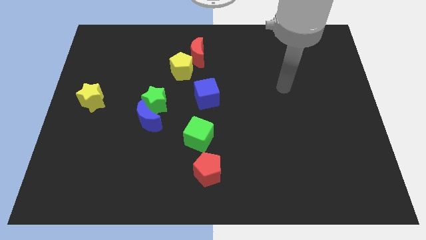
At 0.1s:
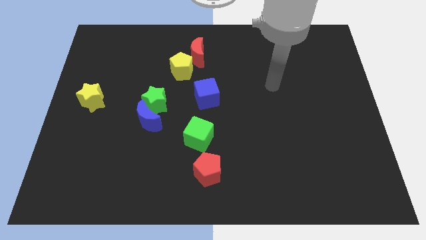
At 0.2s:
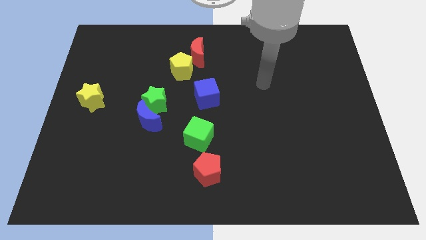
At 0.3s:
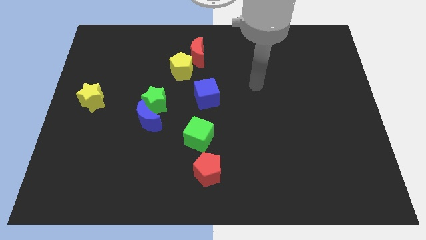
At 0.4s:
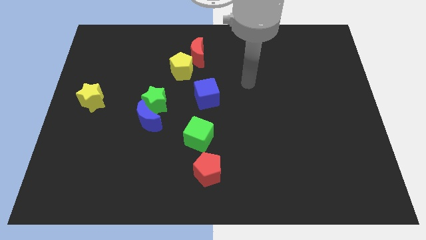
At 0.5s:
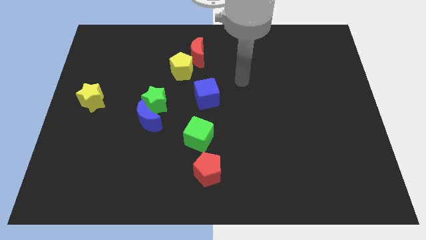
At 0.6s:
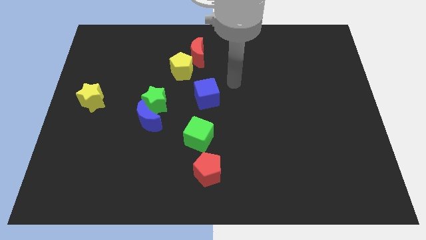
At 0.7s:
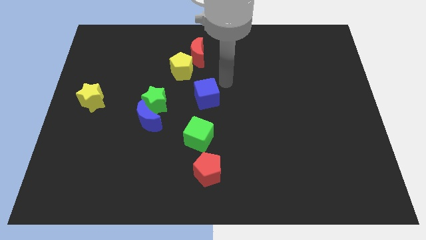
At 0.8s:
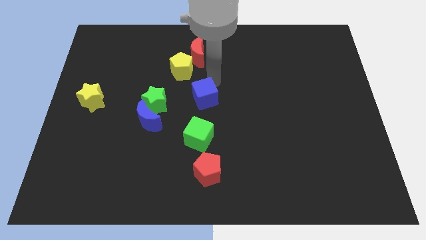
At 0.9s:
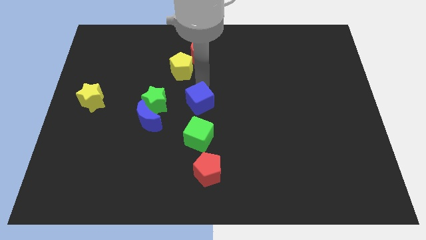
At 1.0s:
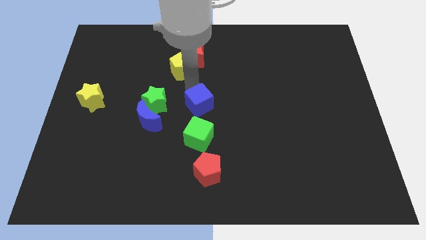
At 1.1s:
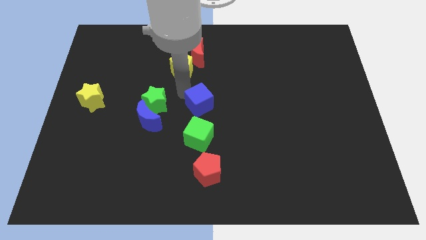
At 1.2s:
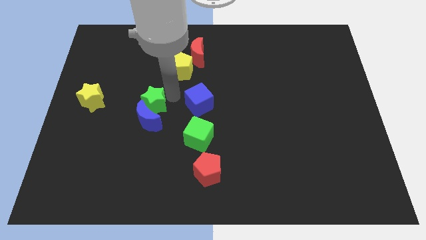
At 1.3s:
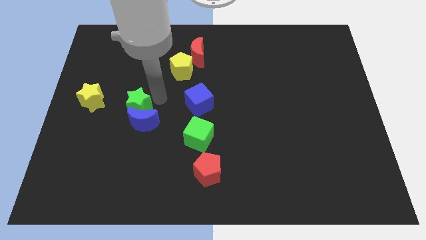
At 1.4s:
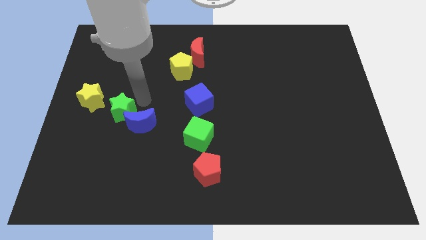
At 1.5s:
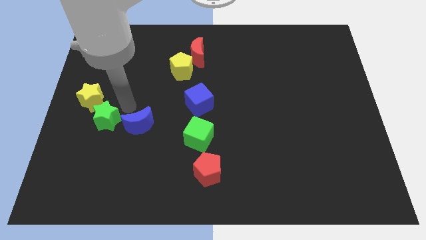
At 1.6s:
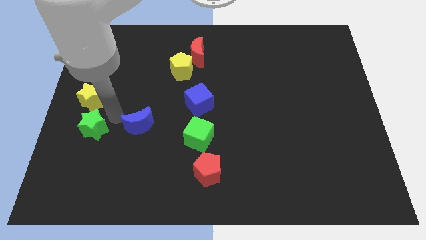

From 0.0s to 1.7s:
separate the blue moon from the green star

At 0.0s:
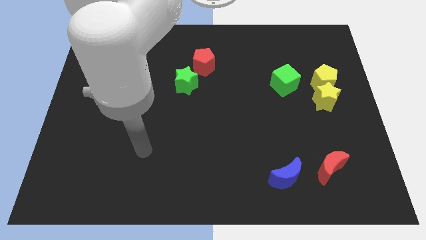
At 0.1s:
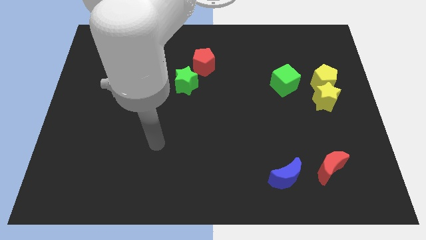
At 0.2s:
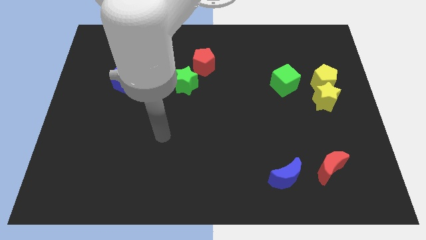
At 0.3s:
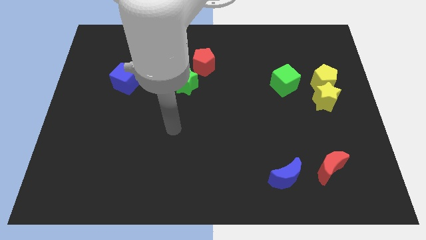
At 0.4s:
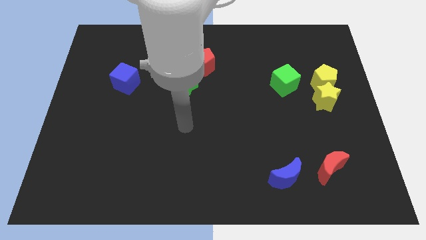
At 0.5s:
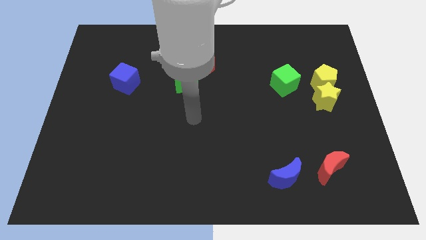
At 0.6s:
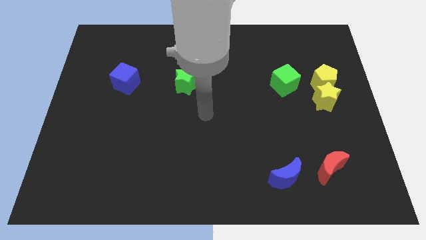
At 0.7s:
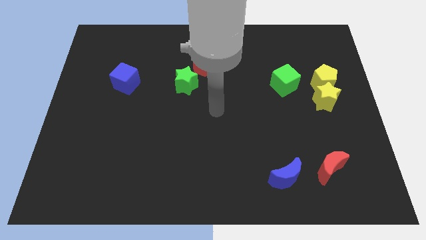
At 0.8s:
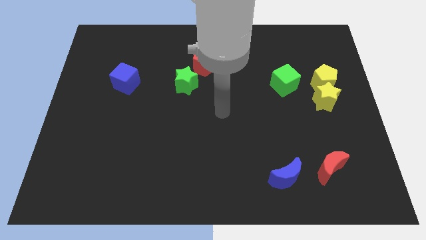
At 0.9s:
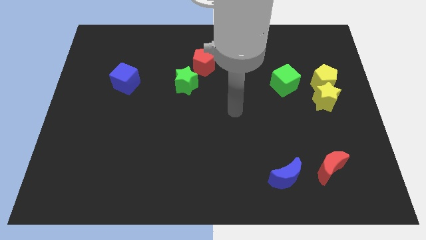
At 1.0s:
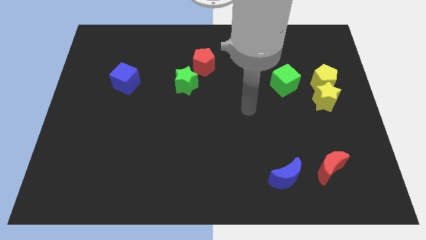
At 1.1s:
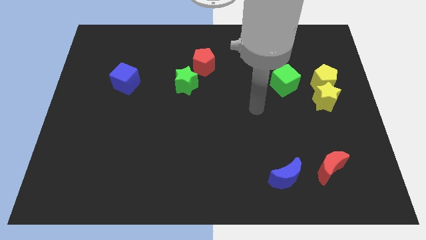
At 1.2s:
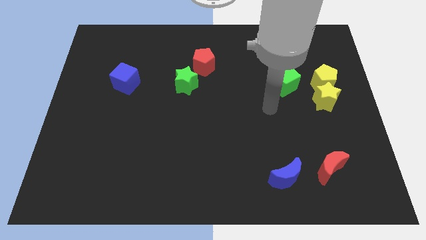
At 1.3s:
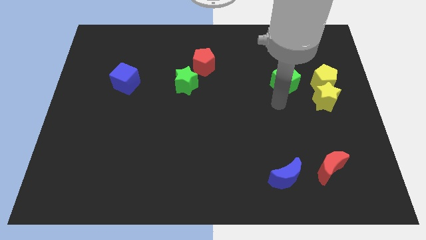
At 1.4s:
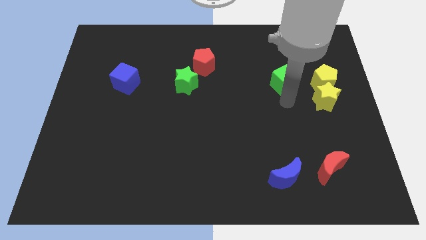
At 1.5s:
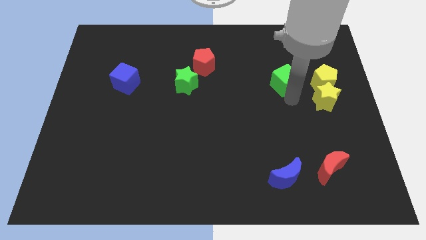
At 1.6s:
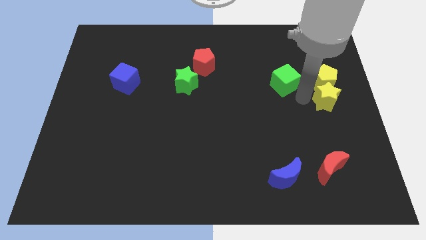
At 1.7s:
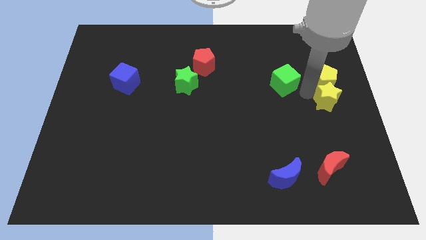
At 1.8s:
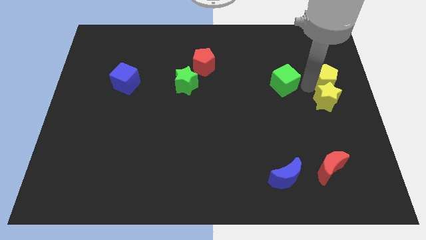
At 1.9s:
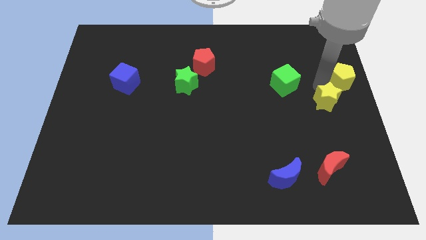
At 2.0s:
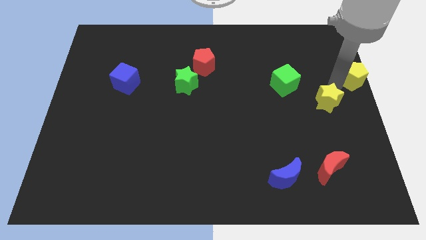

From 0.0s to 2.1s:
separate the yellow star from the yellow pentagon

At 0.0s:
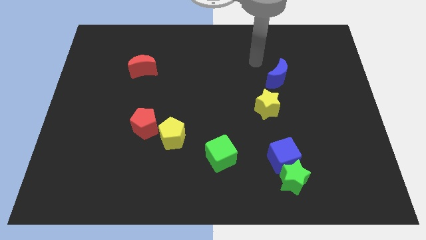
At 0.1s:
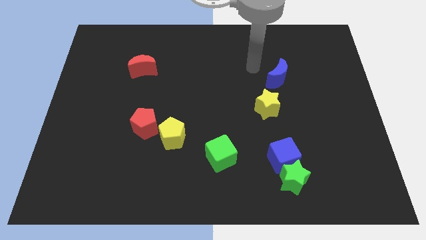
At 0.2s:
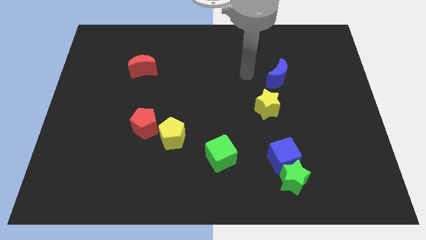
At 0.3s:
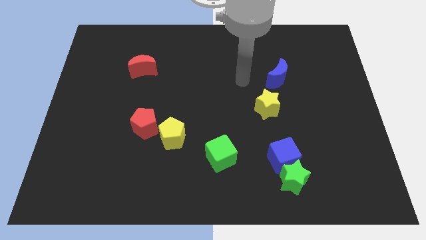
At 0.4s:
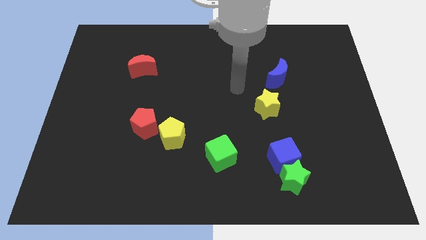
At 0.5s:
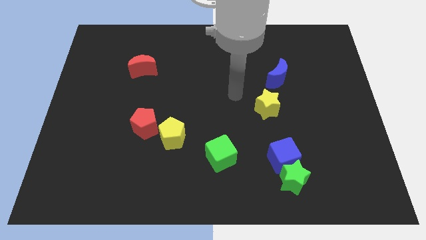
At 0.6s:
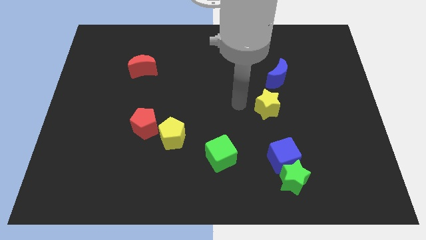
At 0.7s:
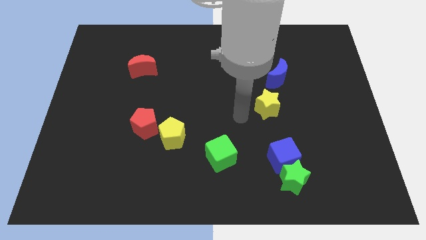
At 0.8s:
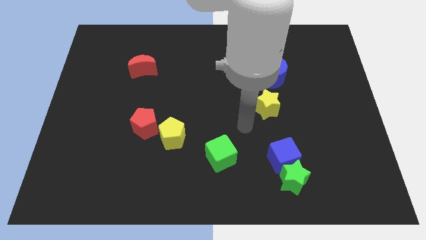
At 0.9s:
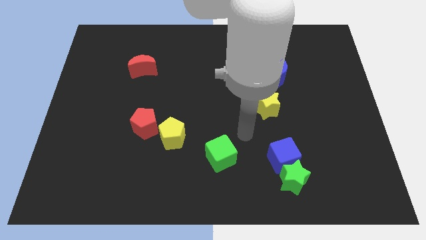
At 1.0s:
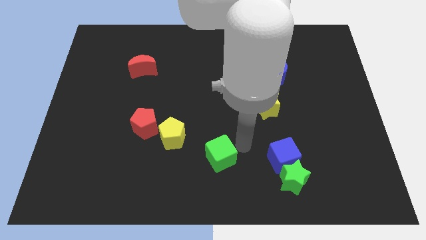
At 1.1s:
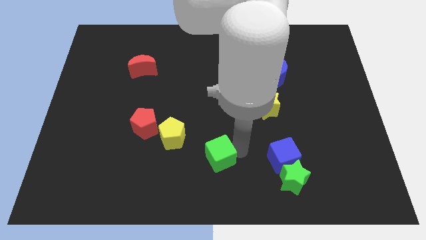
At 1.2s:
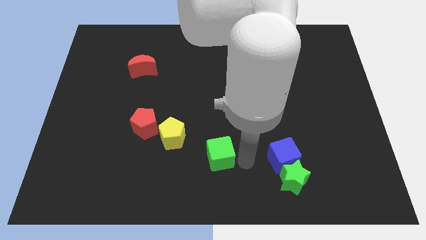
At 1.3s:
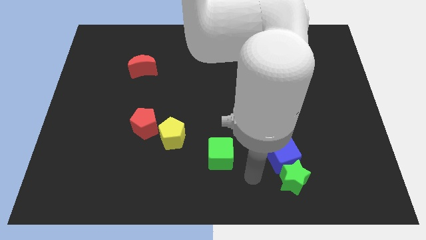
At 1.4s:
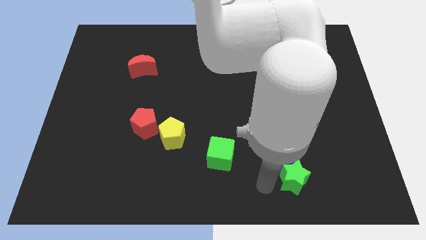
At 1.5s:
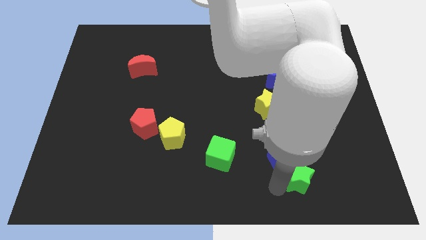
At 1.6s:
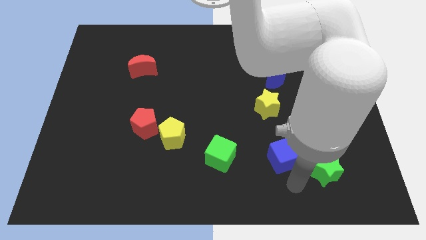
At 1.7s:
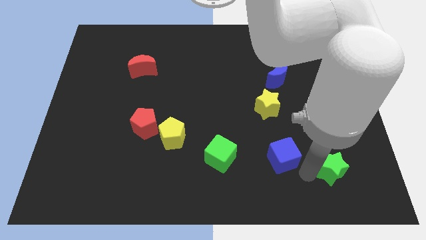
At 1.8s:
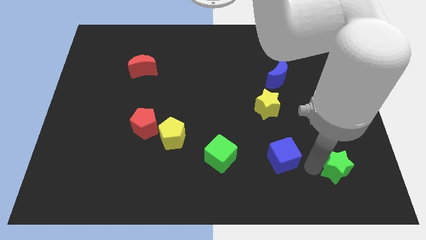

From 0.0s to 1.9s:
separate the blue cube from the green star

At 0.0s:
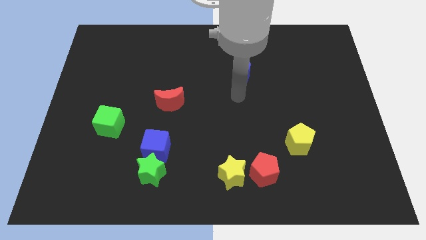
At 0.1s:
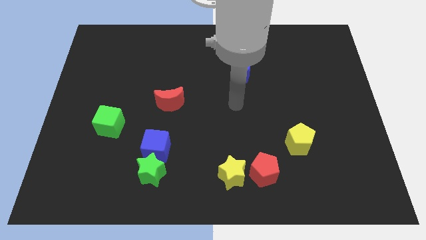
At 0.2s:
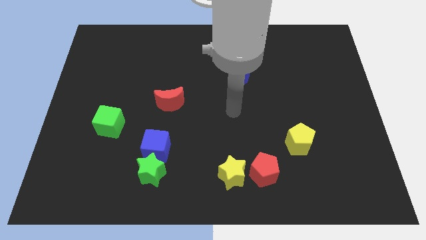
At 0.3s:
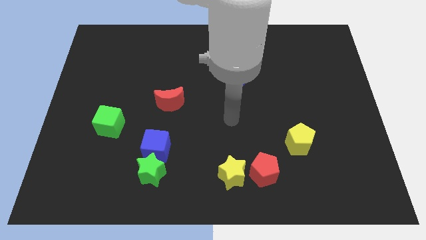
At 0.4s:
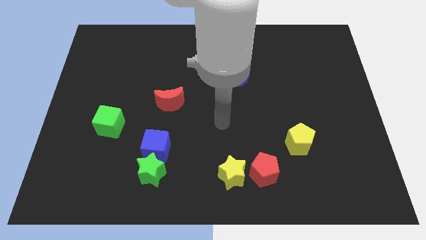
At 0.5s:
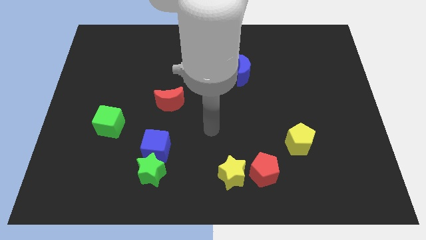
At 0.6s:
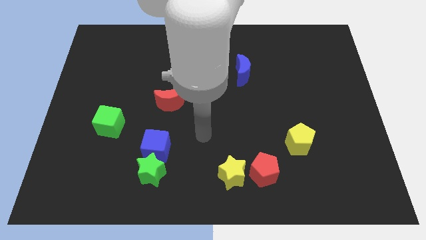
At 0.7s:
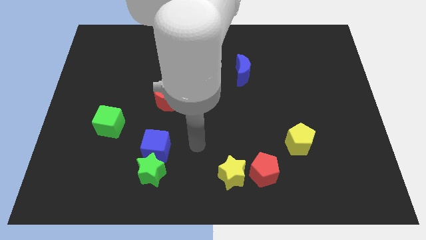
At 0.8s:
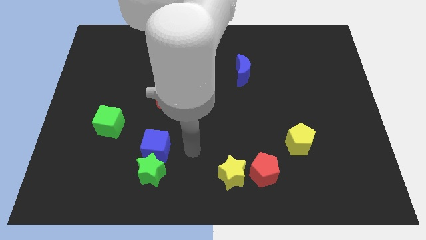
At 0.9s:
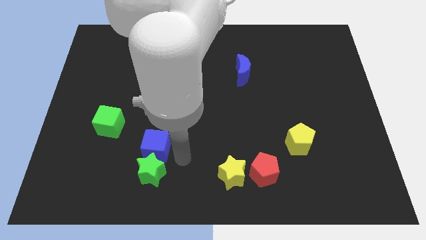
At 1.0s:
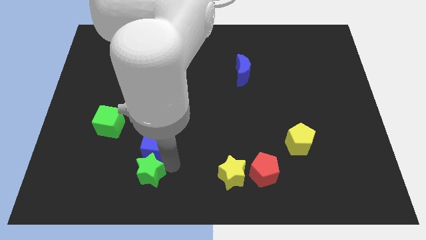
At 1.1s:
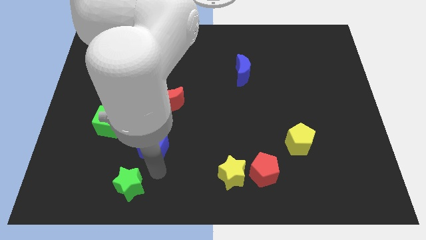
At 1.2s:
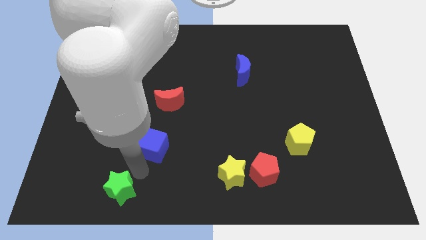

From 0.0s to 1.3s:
pull the blue cube apart from the green star

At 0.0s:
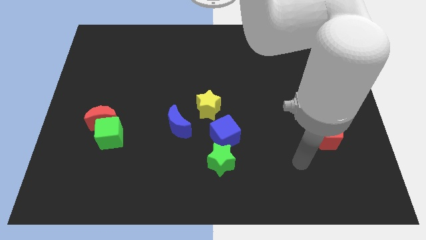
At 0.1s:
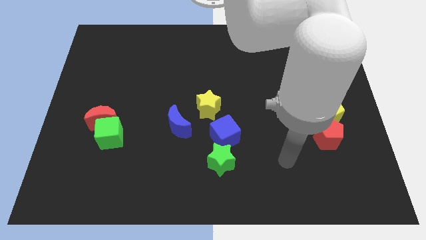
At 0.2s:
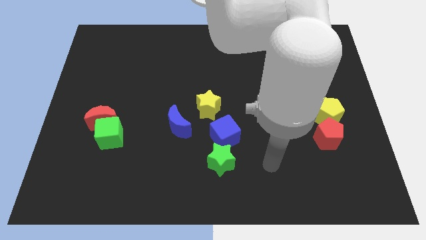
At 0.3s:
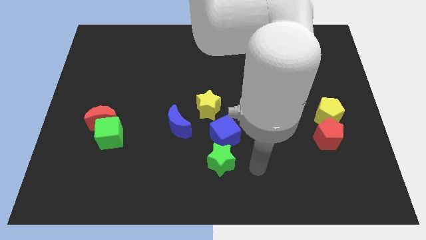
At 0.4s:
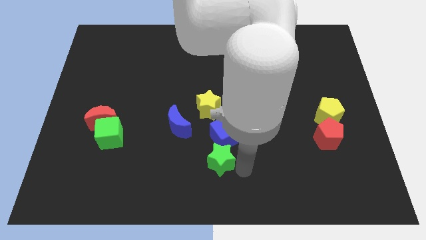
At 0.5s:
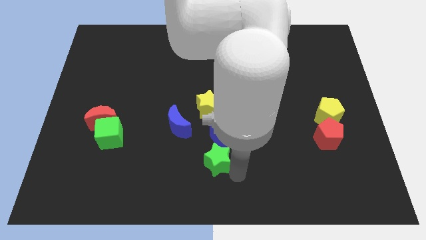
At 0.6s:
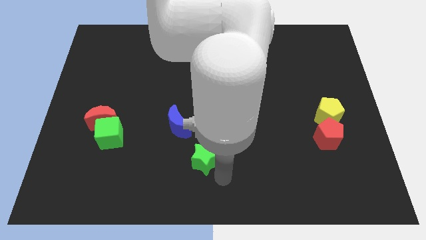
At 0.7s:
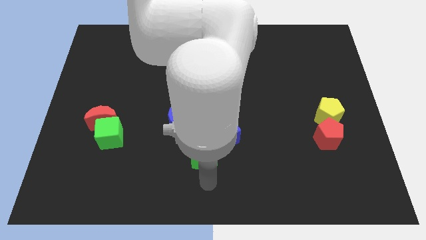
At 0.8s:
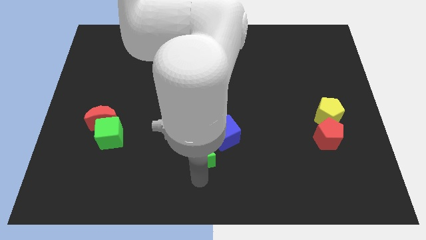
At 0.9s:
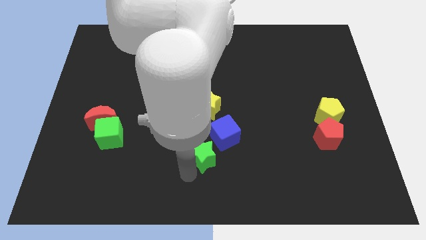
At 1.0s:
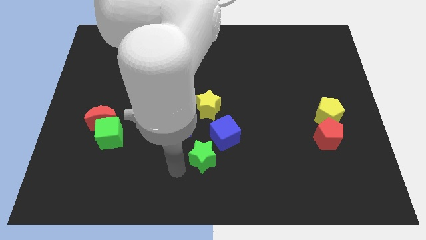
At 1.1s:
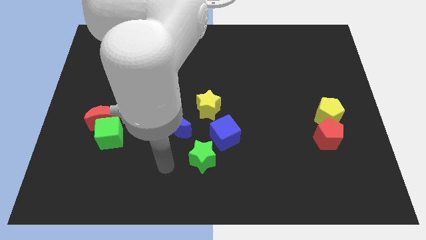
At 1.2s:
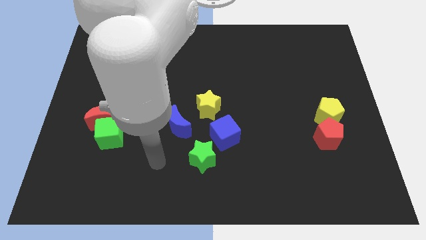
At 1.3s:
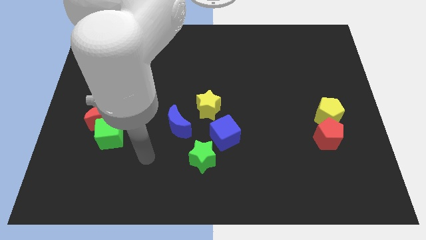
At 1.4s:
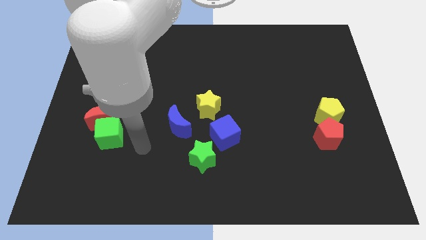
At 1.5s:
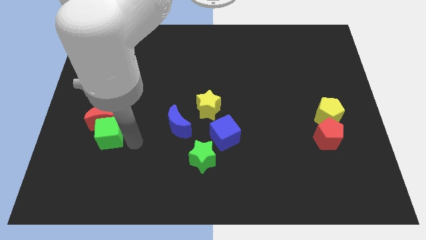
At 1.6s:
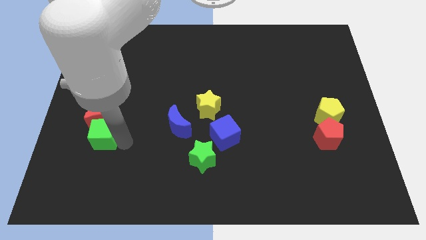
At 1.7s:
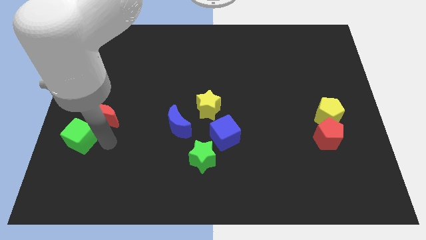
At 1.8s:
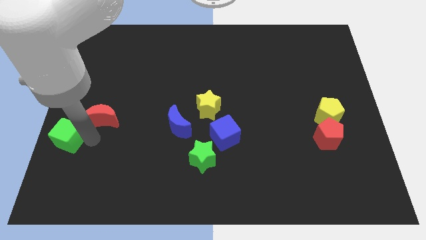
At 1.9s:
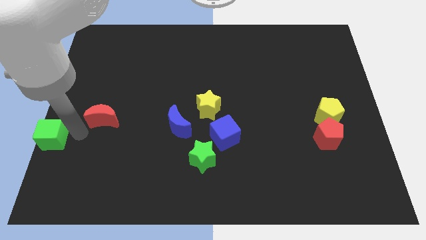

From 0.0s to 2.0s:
separate the red moon from the green cube

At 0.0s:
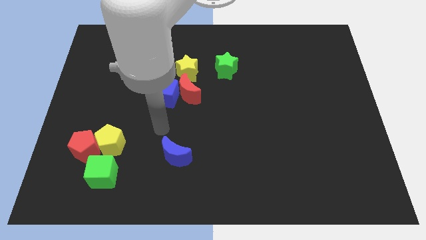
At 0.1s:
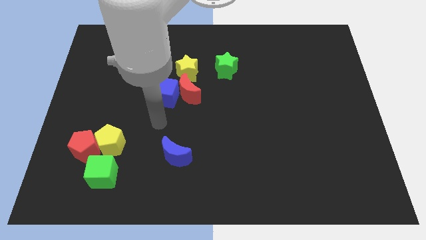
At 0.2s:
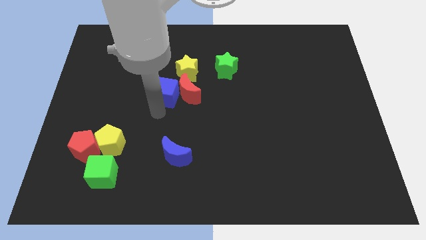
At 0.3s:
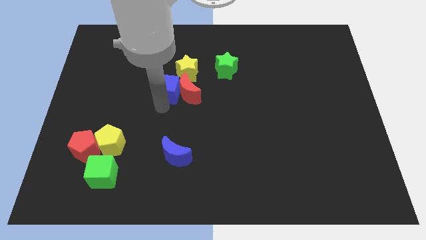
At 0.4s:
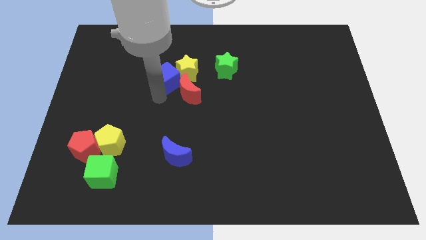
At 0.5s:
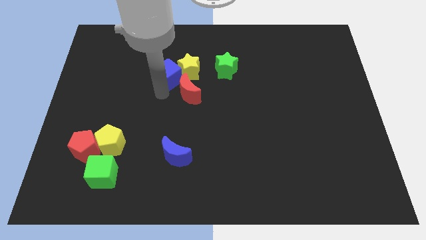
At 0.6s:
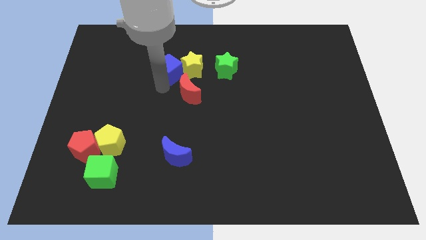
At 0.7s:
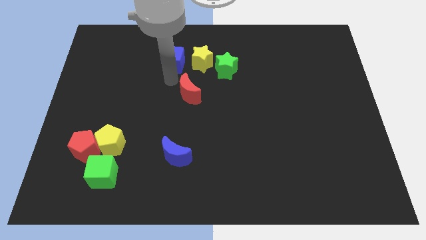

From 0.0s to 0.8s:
separate the red moon from the blue cube and yellow star
